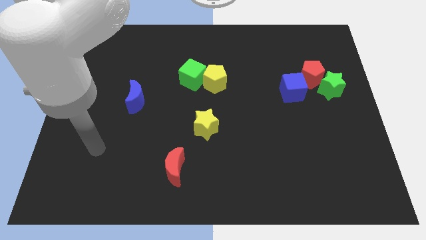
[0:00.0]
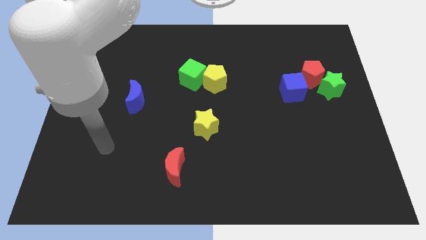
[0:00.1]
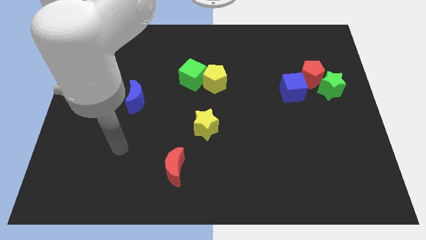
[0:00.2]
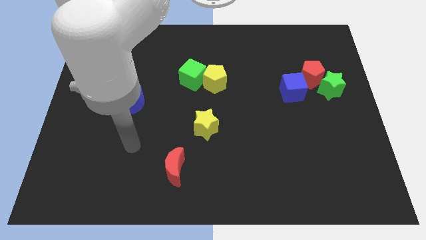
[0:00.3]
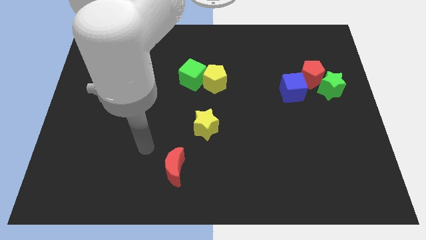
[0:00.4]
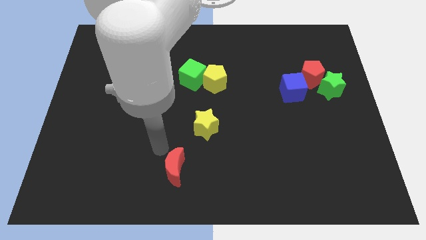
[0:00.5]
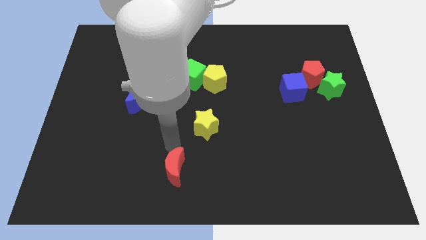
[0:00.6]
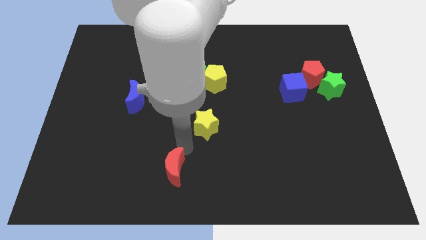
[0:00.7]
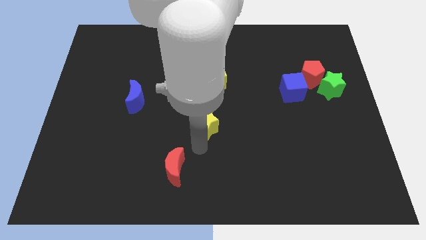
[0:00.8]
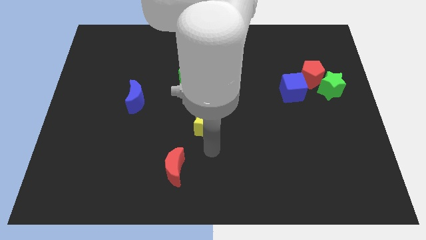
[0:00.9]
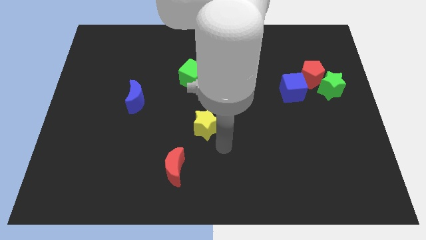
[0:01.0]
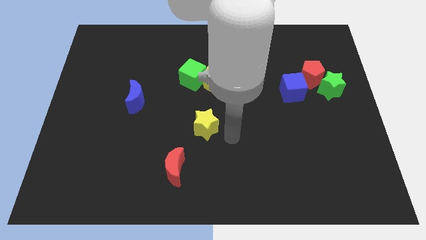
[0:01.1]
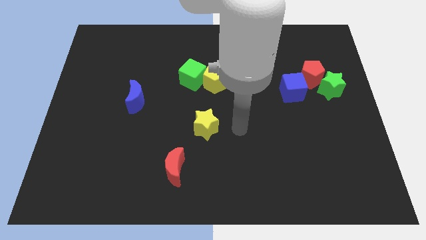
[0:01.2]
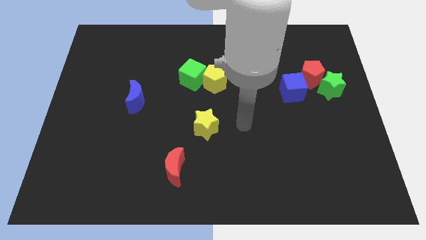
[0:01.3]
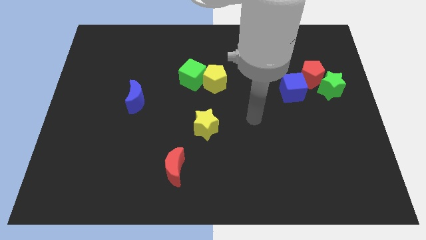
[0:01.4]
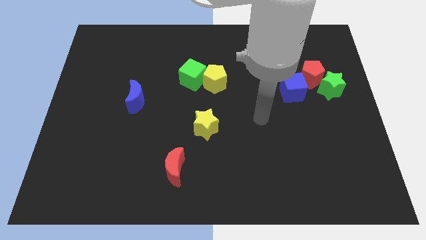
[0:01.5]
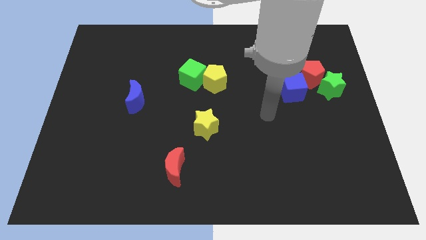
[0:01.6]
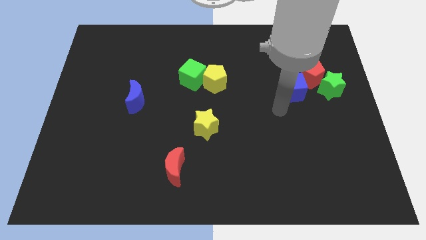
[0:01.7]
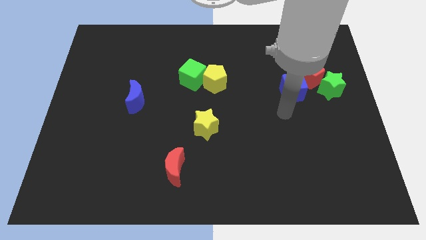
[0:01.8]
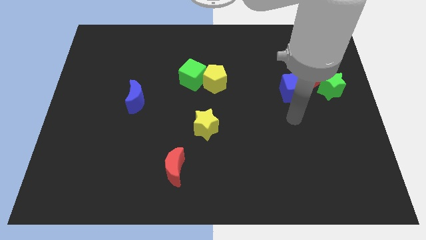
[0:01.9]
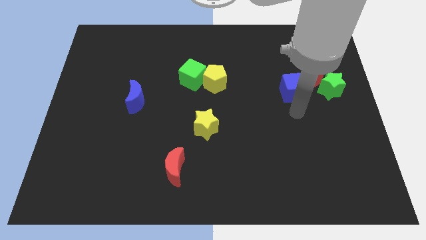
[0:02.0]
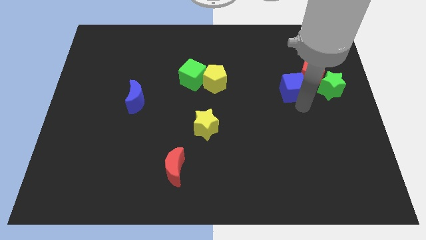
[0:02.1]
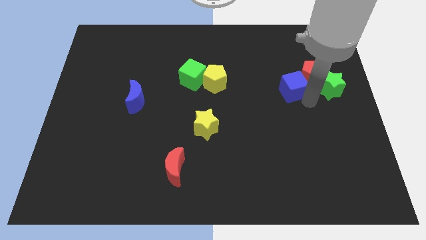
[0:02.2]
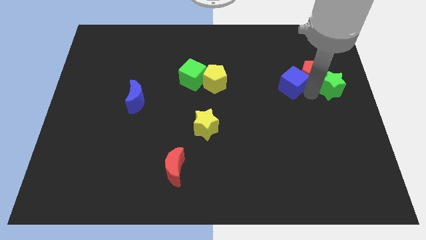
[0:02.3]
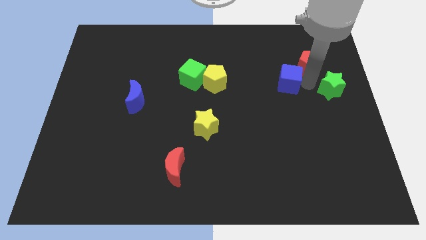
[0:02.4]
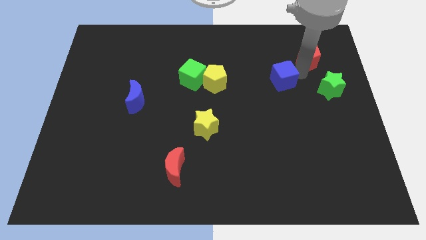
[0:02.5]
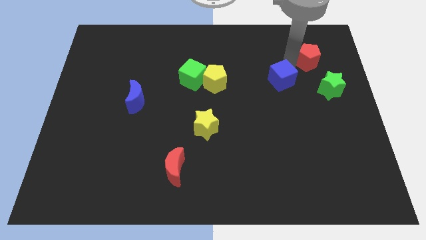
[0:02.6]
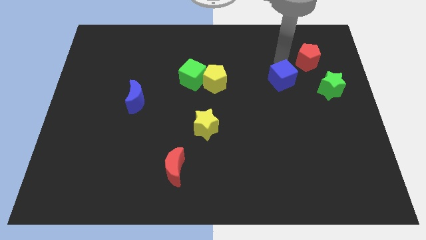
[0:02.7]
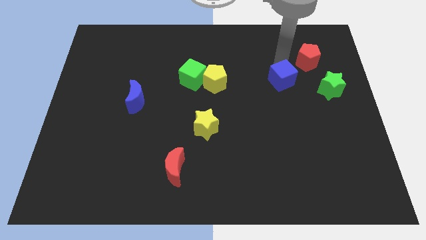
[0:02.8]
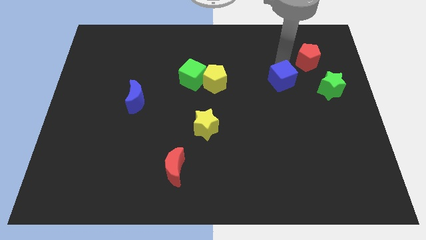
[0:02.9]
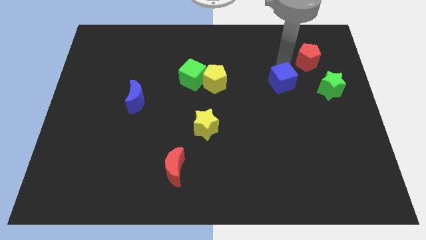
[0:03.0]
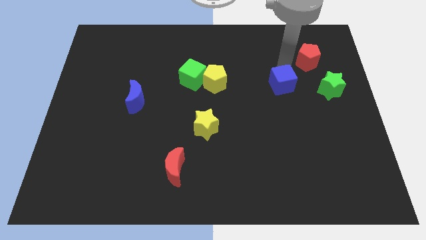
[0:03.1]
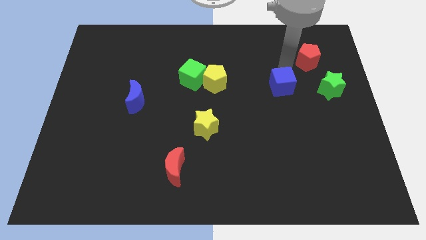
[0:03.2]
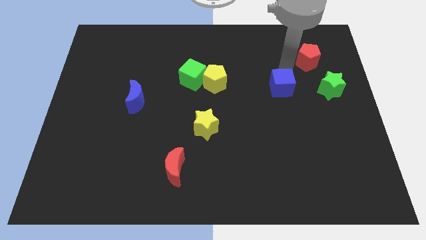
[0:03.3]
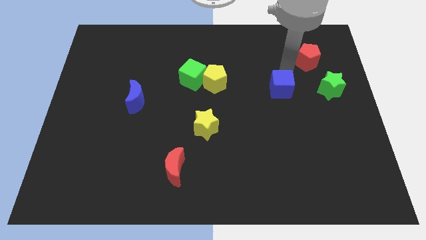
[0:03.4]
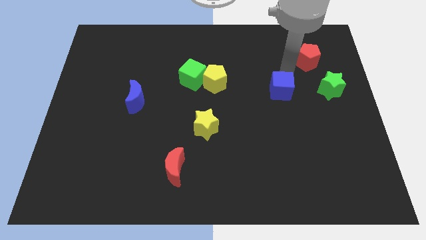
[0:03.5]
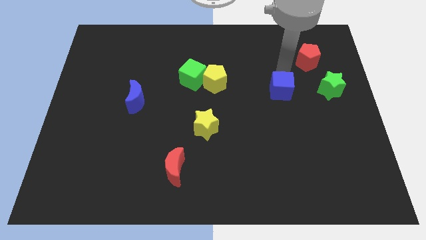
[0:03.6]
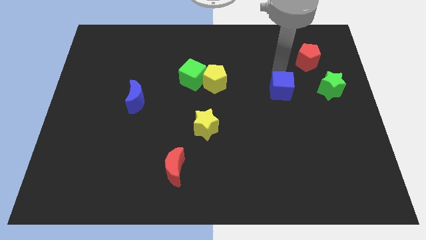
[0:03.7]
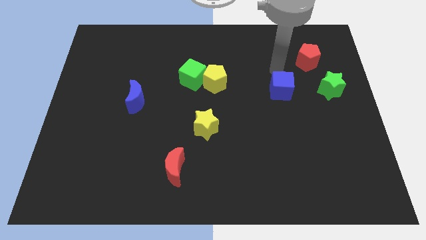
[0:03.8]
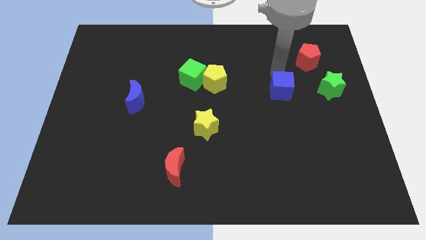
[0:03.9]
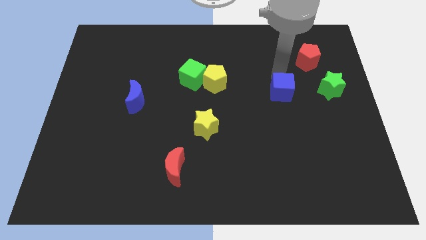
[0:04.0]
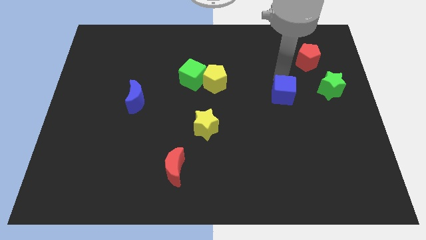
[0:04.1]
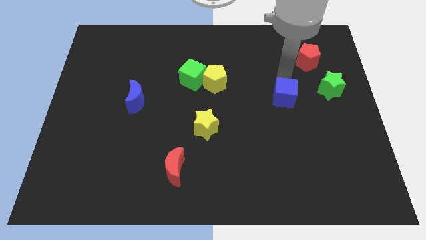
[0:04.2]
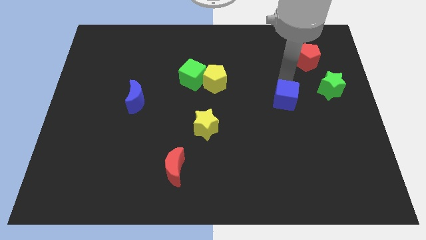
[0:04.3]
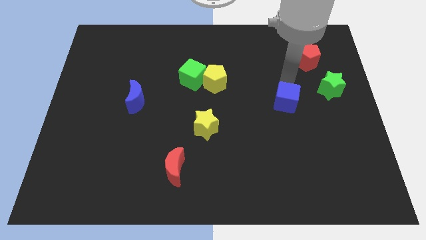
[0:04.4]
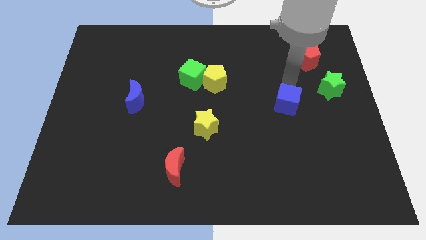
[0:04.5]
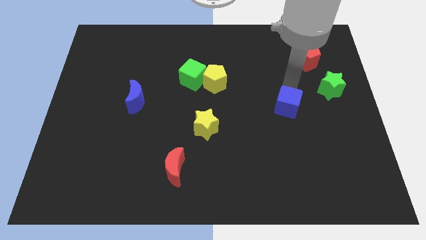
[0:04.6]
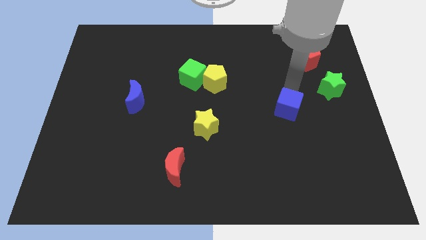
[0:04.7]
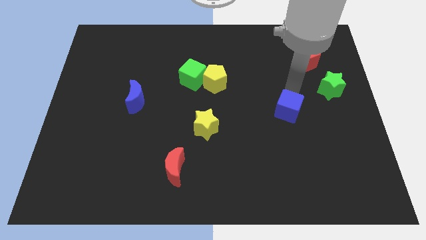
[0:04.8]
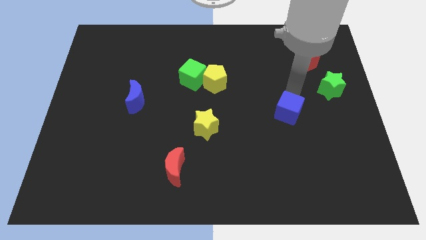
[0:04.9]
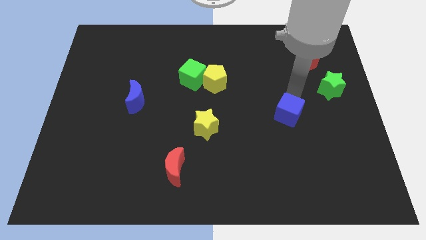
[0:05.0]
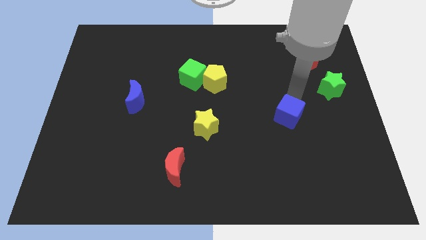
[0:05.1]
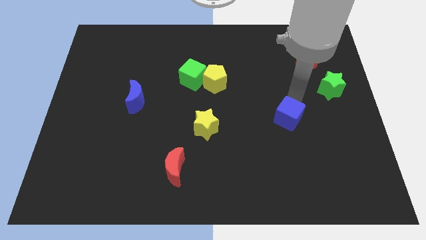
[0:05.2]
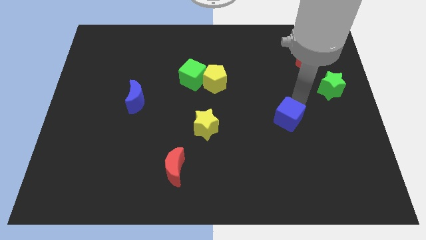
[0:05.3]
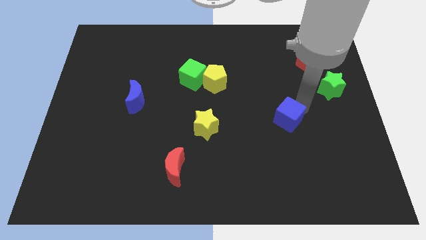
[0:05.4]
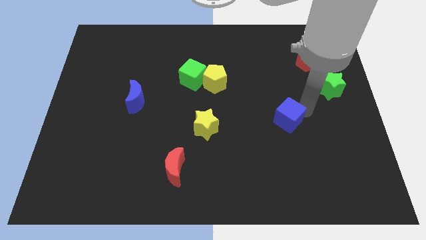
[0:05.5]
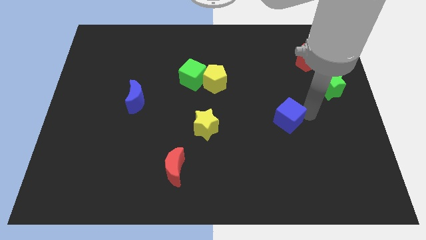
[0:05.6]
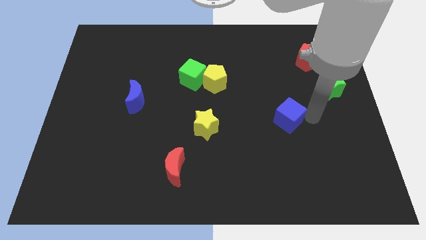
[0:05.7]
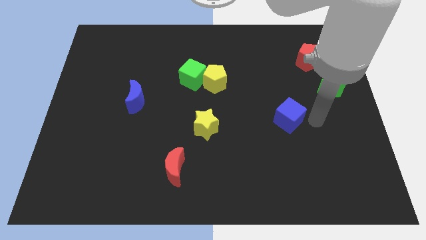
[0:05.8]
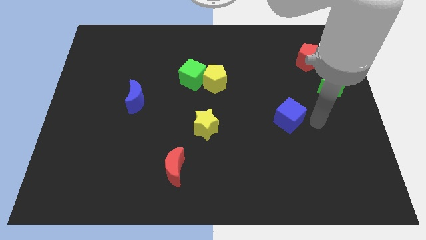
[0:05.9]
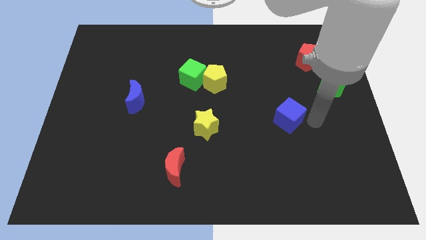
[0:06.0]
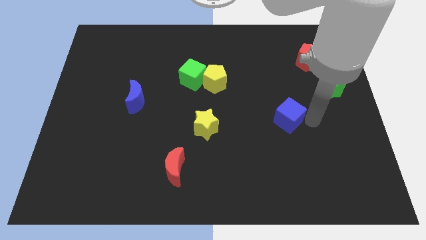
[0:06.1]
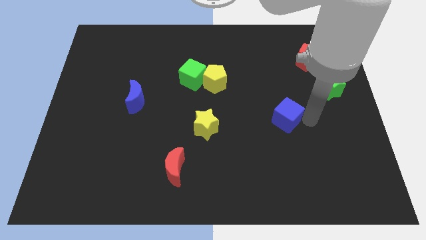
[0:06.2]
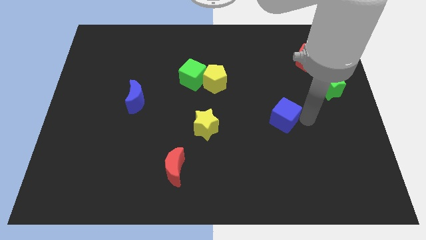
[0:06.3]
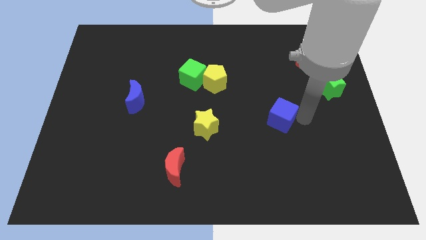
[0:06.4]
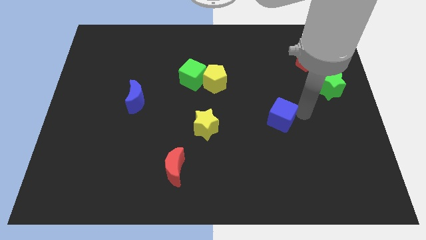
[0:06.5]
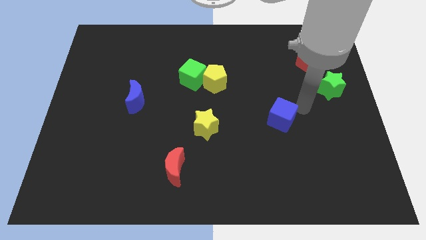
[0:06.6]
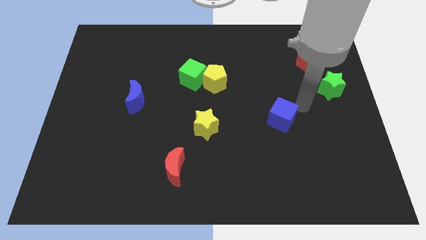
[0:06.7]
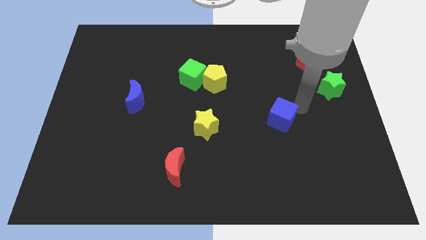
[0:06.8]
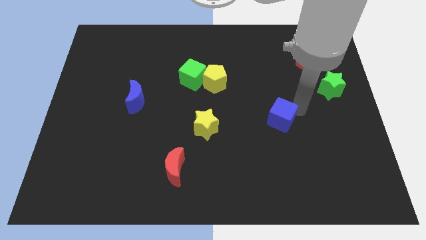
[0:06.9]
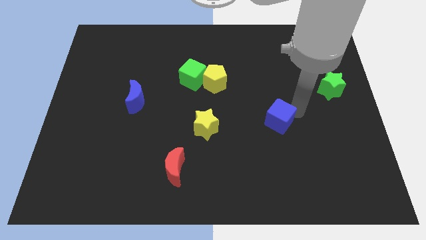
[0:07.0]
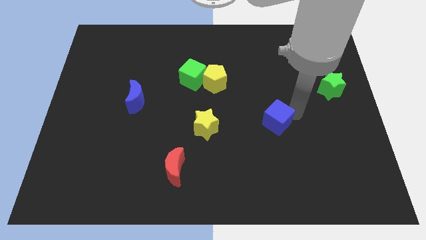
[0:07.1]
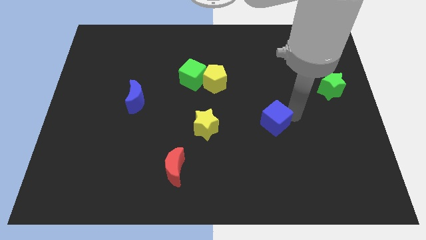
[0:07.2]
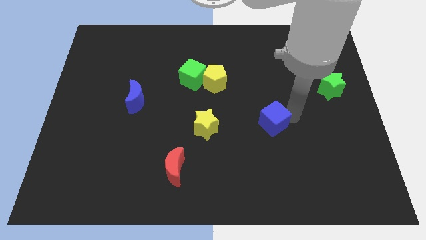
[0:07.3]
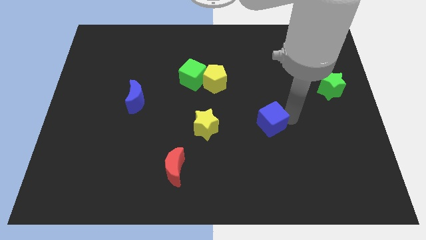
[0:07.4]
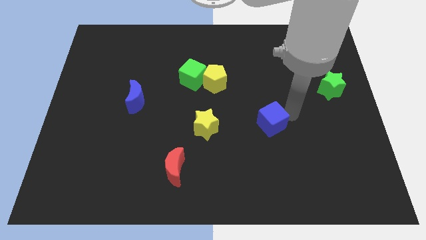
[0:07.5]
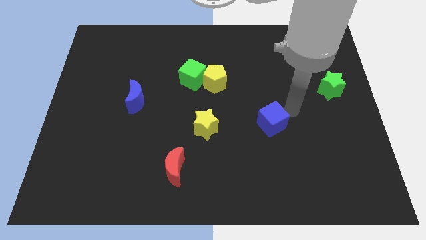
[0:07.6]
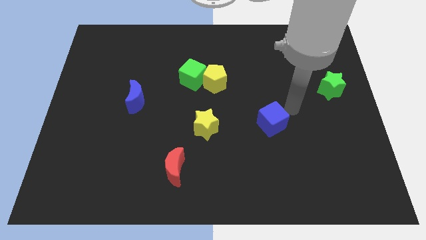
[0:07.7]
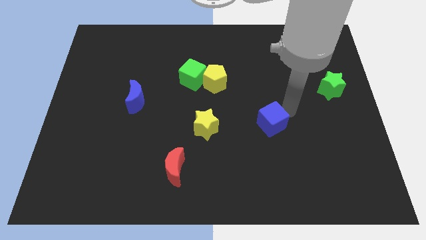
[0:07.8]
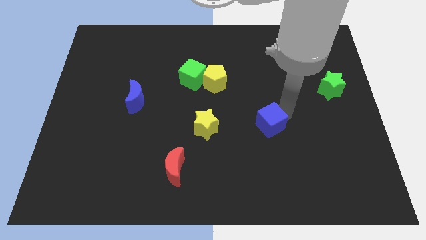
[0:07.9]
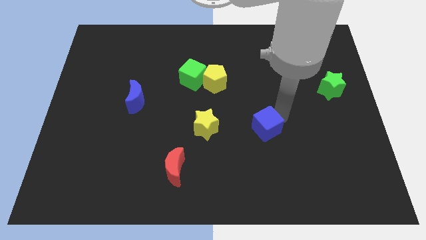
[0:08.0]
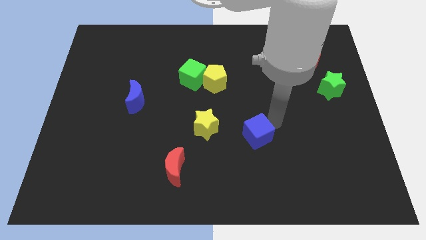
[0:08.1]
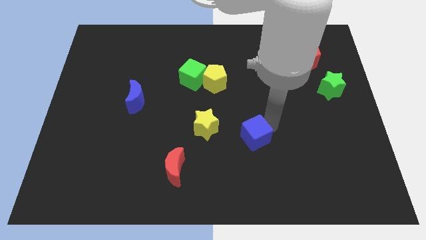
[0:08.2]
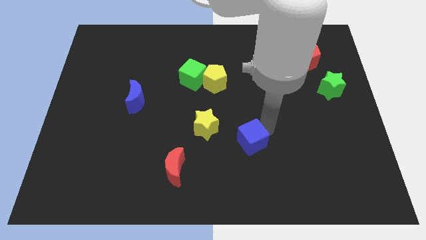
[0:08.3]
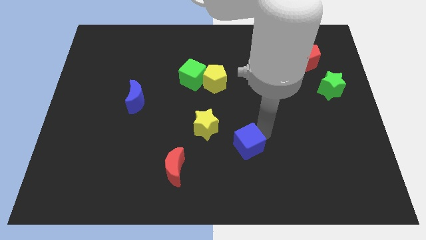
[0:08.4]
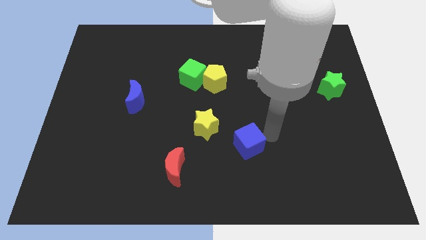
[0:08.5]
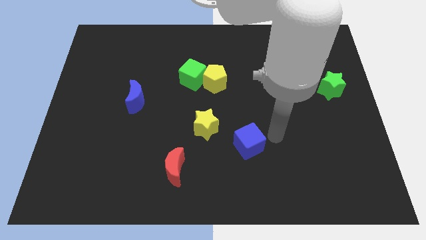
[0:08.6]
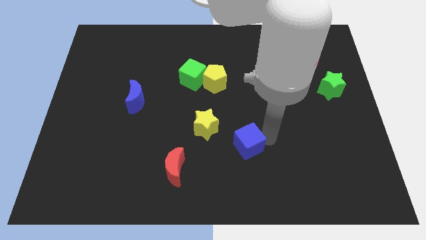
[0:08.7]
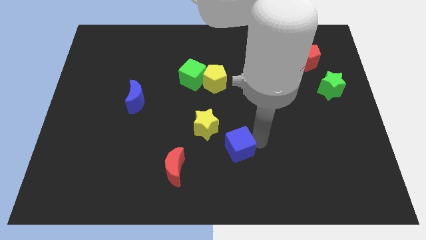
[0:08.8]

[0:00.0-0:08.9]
slide the blue cube downwards and then left
